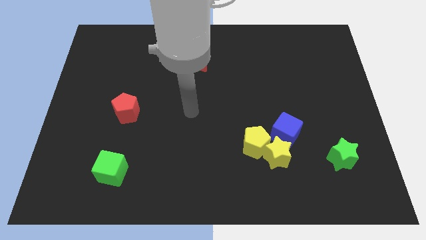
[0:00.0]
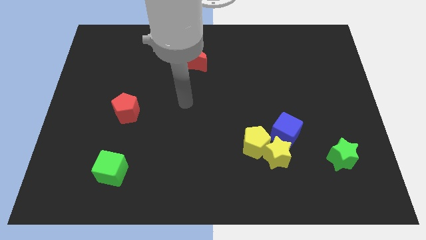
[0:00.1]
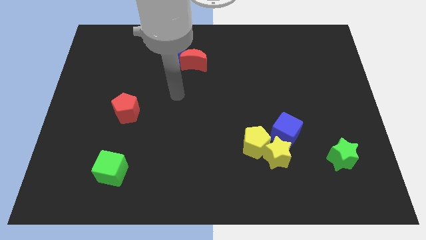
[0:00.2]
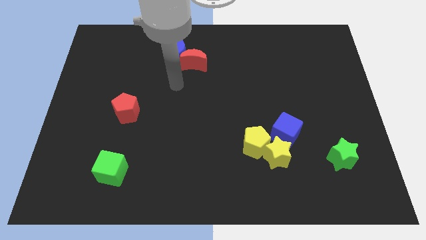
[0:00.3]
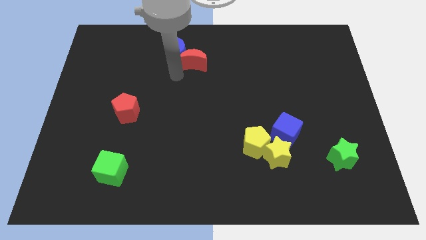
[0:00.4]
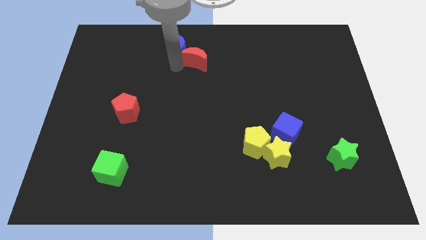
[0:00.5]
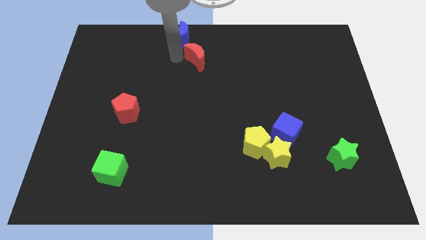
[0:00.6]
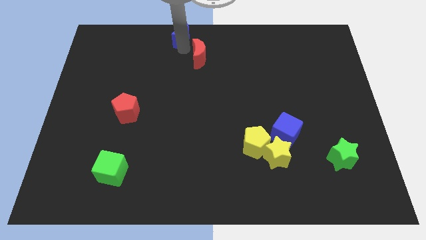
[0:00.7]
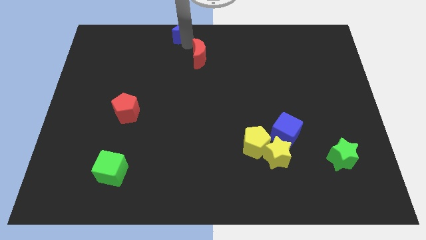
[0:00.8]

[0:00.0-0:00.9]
move the red moon away from the blue moon

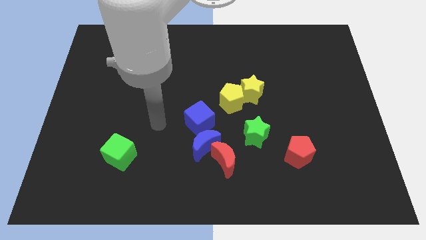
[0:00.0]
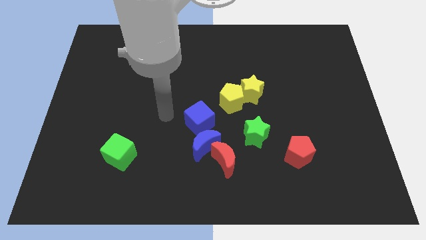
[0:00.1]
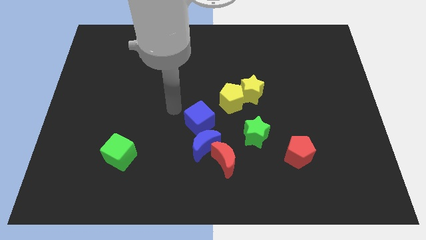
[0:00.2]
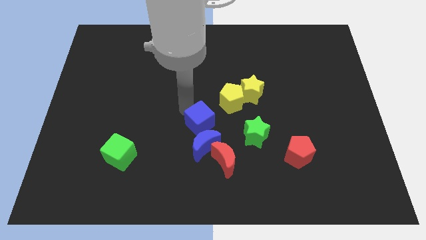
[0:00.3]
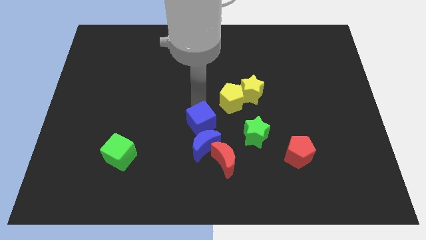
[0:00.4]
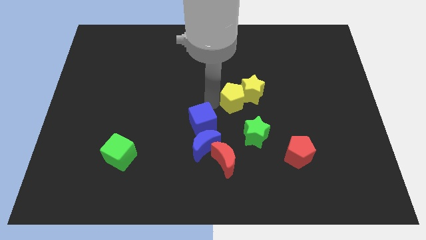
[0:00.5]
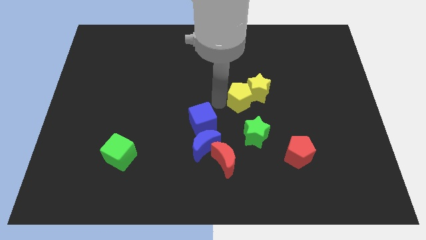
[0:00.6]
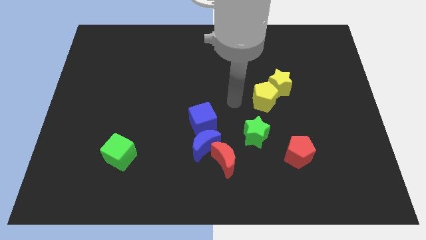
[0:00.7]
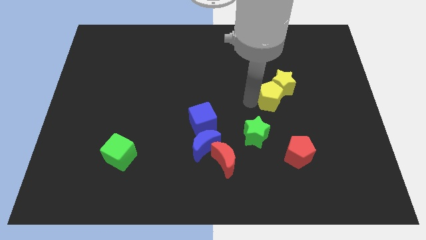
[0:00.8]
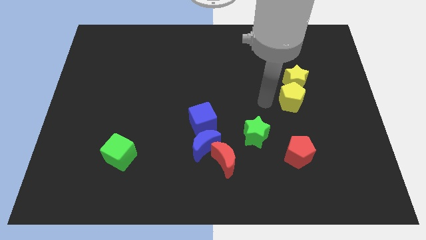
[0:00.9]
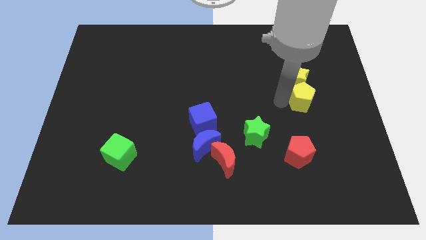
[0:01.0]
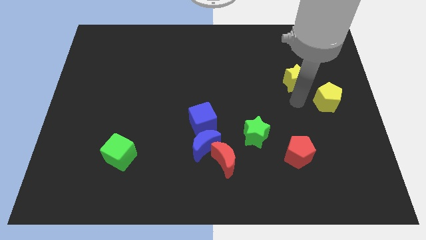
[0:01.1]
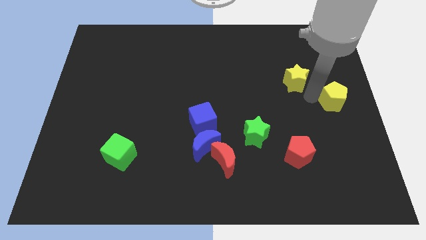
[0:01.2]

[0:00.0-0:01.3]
separate the yellow star from the yellow pentagon

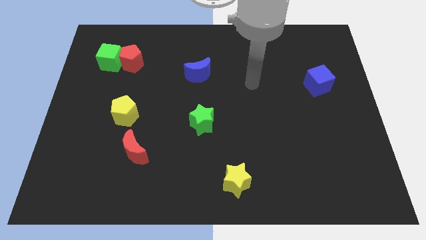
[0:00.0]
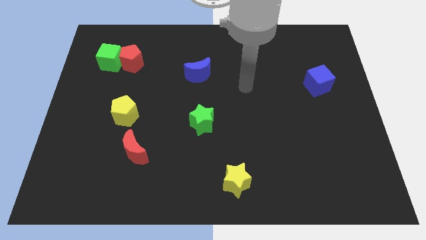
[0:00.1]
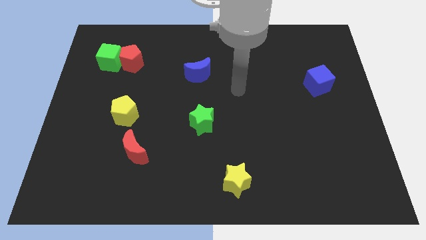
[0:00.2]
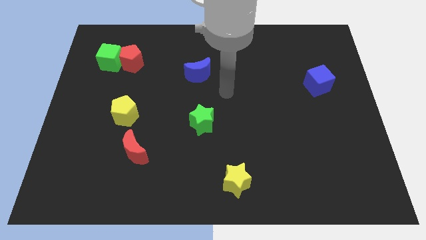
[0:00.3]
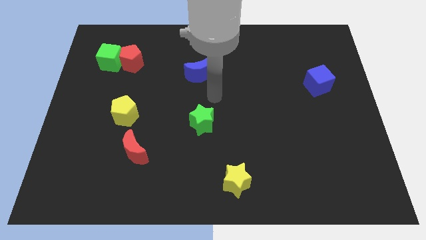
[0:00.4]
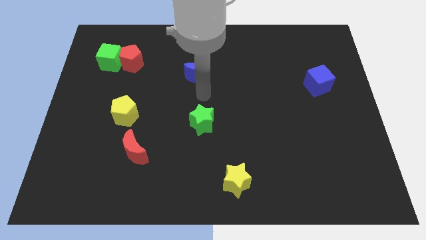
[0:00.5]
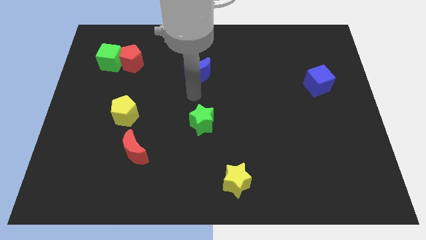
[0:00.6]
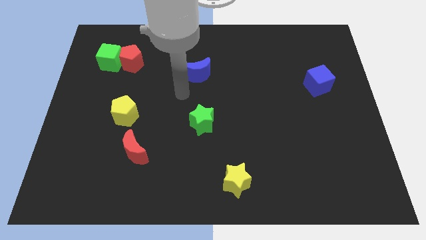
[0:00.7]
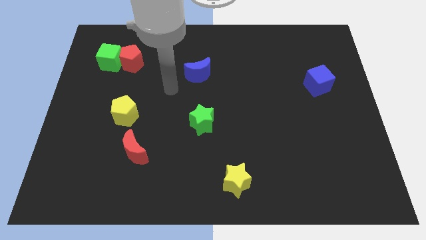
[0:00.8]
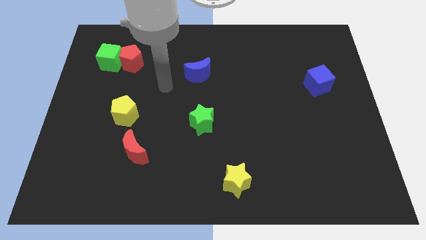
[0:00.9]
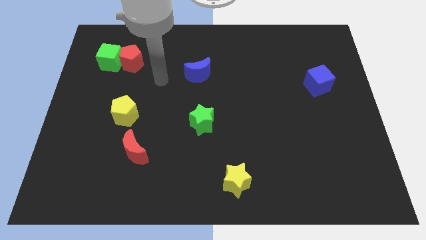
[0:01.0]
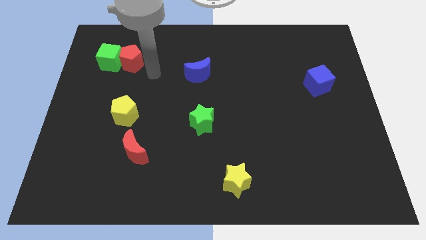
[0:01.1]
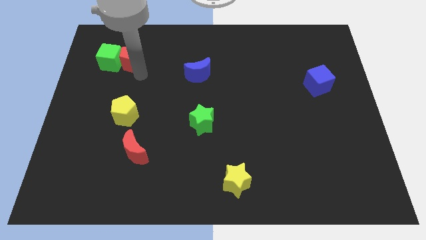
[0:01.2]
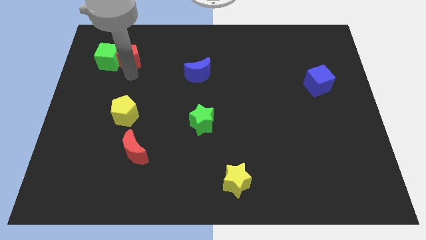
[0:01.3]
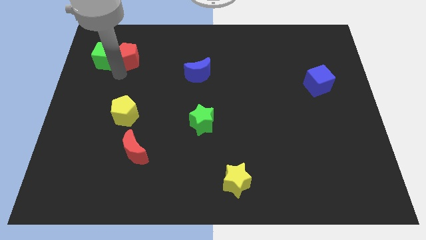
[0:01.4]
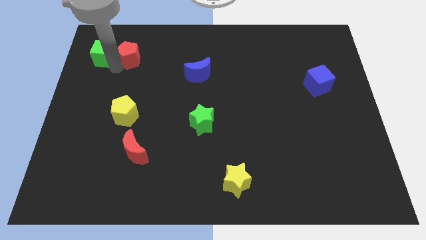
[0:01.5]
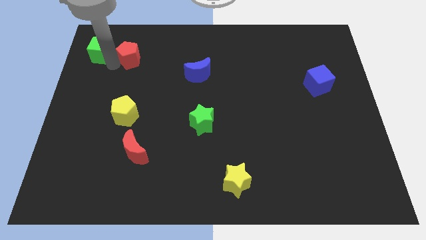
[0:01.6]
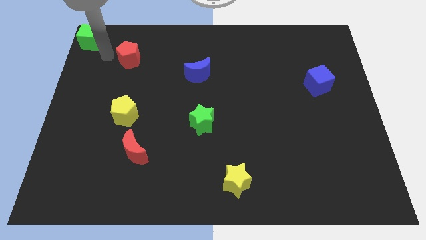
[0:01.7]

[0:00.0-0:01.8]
pull the red pentagon apart from the green cube

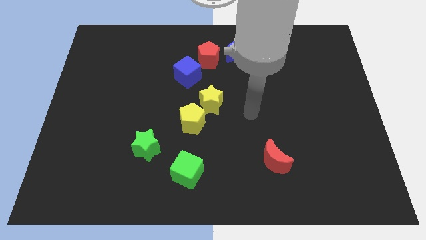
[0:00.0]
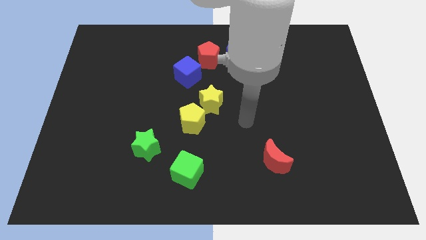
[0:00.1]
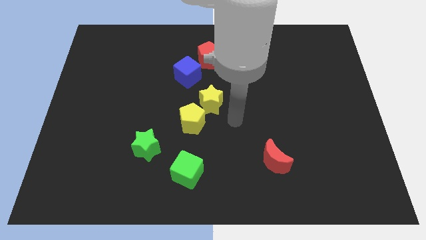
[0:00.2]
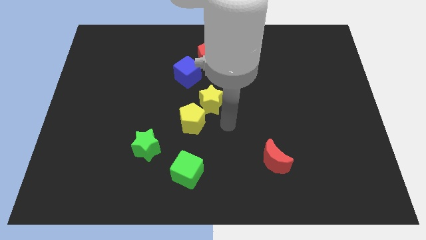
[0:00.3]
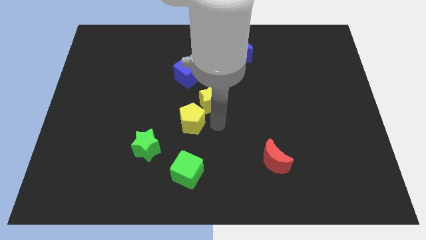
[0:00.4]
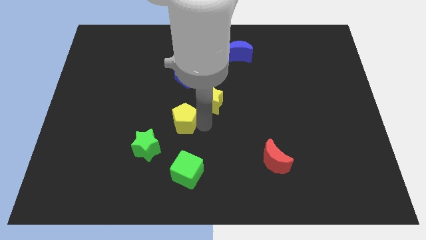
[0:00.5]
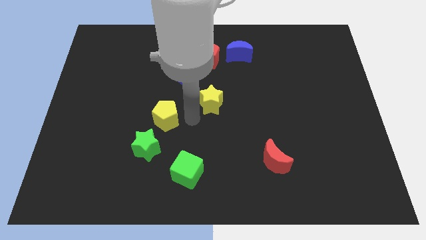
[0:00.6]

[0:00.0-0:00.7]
move the yellow star away from the yellow pentagon

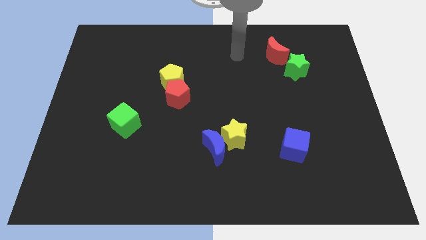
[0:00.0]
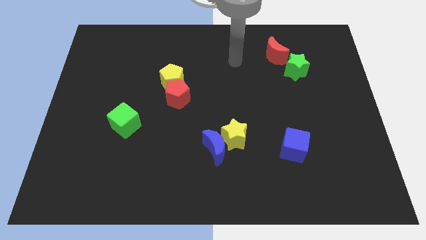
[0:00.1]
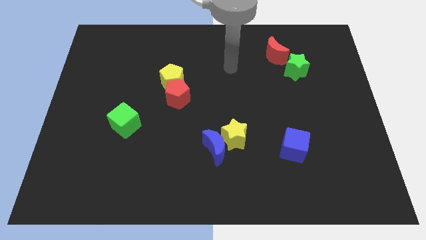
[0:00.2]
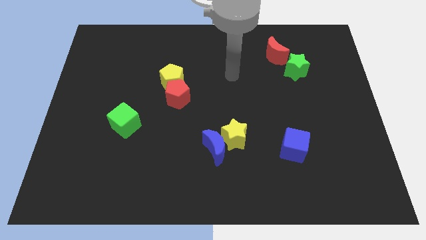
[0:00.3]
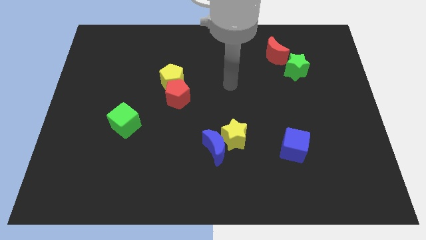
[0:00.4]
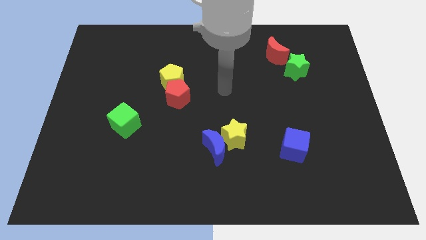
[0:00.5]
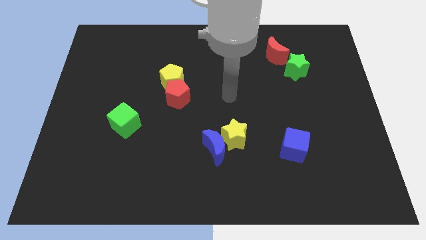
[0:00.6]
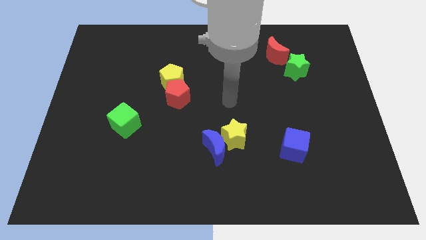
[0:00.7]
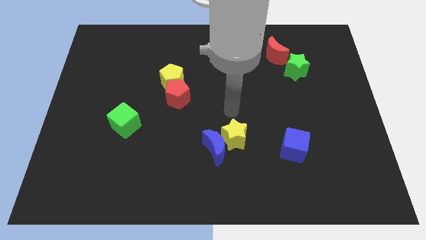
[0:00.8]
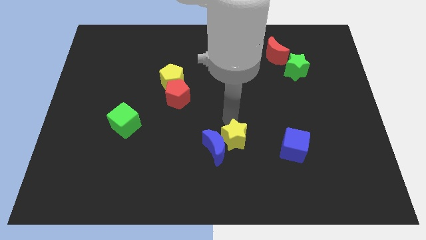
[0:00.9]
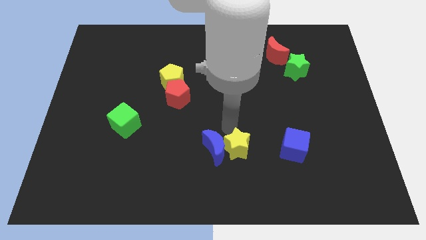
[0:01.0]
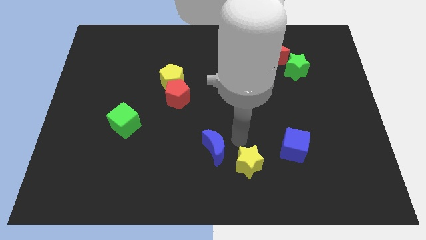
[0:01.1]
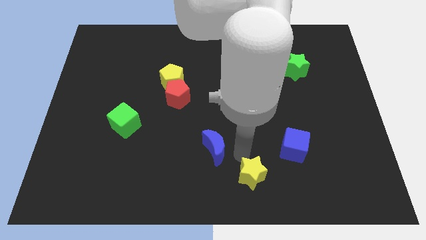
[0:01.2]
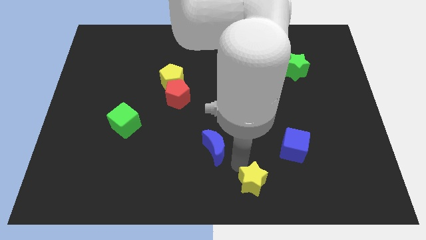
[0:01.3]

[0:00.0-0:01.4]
pull the blue moon apart from the yellow star

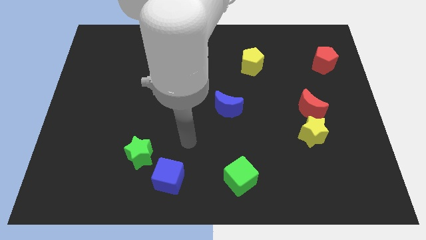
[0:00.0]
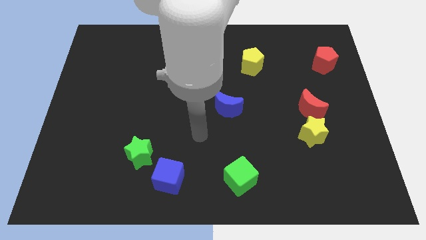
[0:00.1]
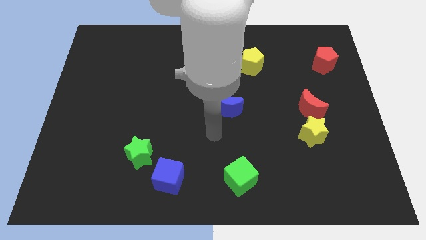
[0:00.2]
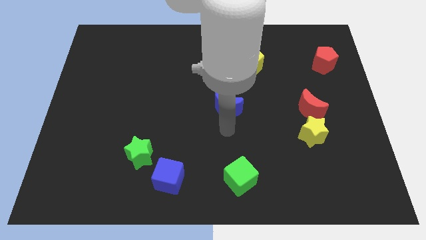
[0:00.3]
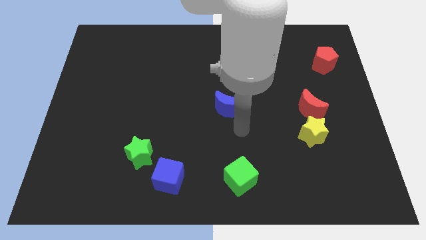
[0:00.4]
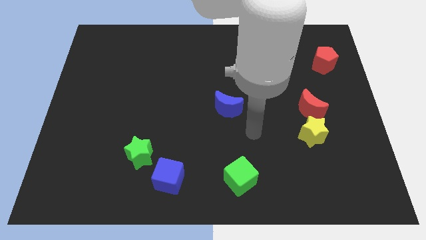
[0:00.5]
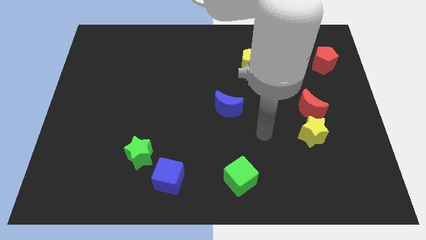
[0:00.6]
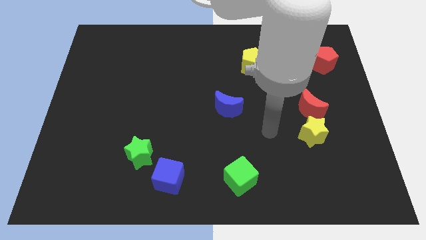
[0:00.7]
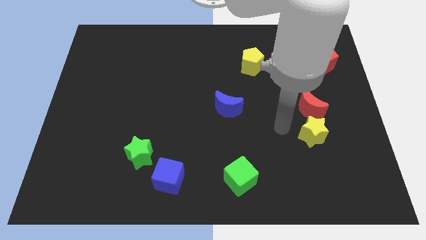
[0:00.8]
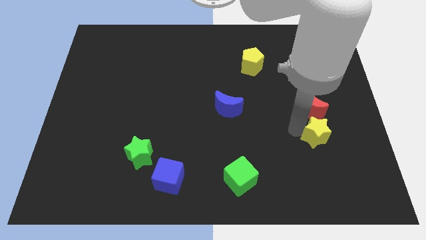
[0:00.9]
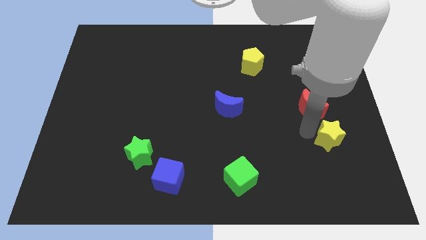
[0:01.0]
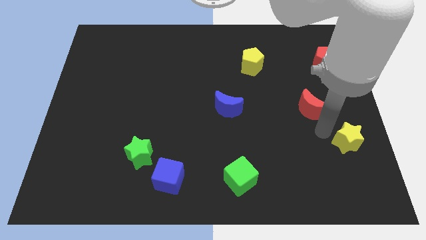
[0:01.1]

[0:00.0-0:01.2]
pull the red moon apart from the yellow star

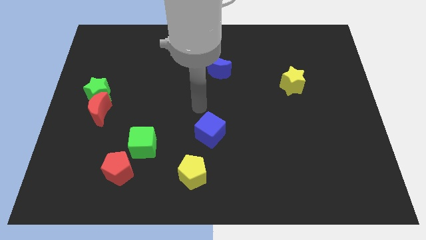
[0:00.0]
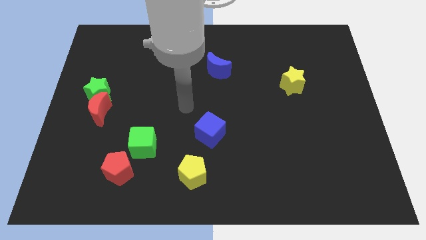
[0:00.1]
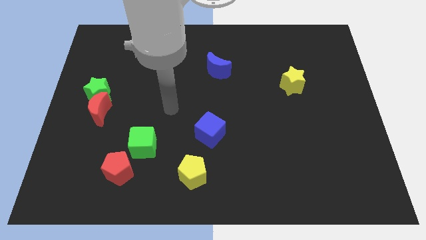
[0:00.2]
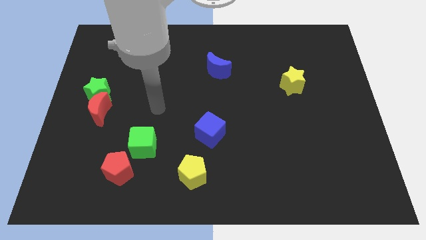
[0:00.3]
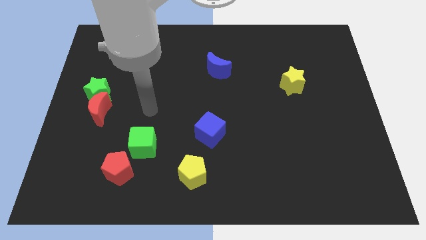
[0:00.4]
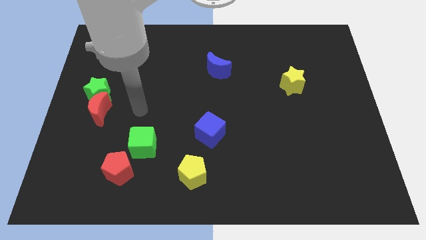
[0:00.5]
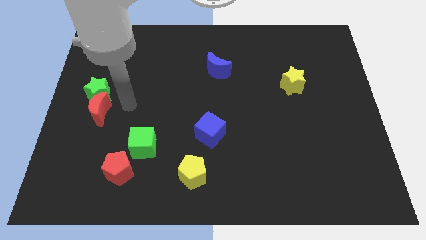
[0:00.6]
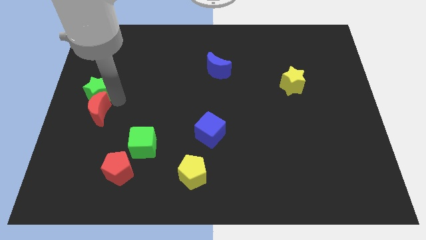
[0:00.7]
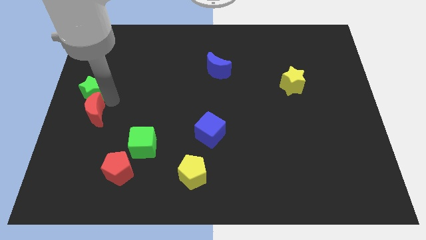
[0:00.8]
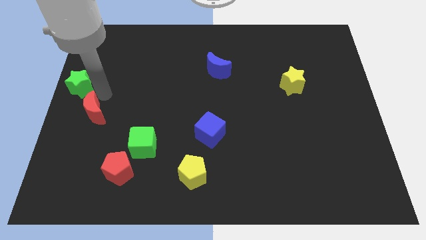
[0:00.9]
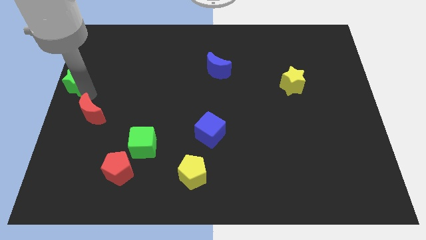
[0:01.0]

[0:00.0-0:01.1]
separate the red moon from the green star

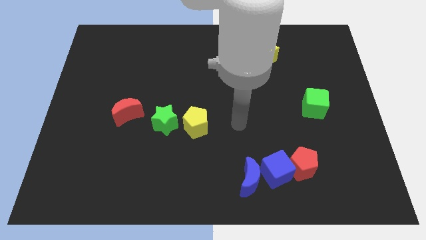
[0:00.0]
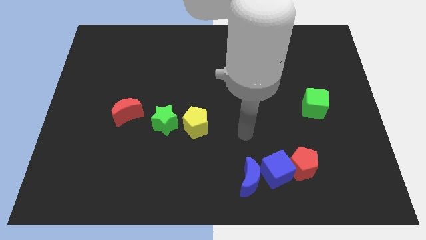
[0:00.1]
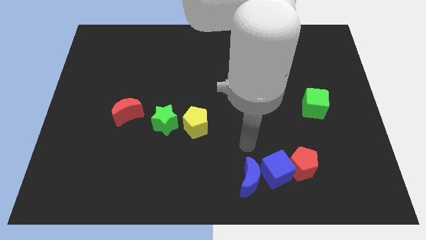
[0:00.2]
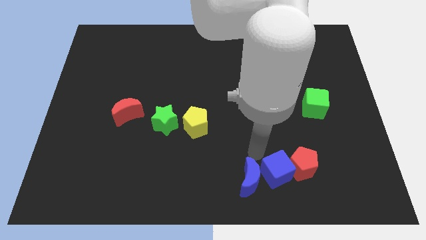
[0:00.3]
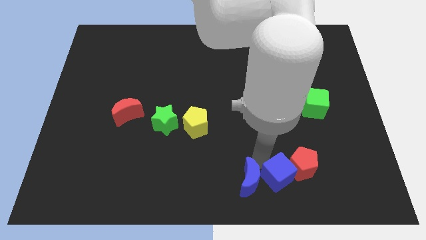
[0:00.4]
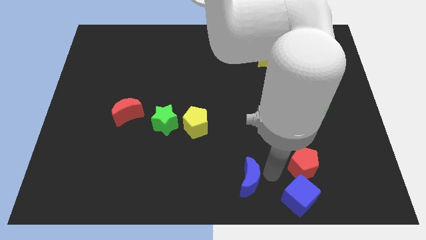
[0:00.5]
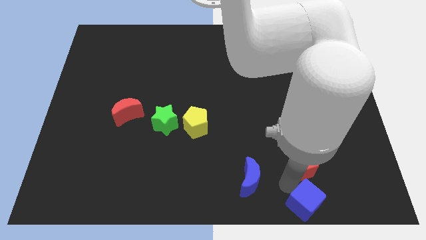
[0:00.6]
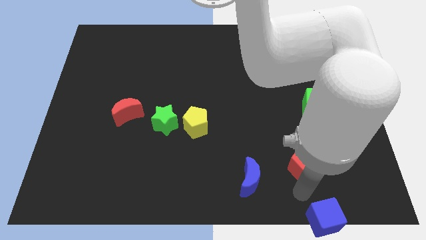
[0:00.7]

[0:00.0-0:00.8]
move the red pentagon away from the blue cube

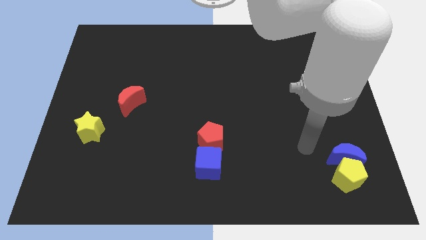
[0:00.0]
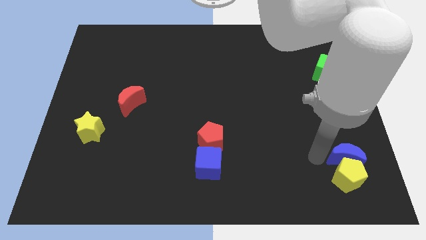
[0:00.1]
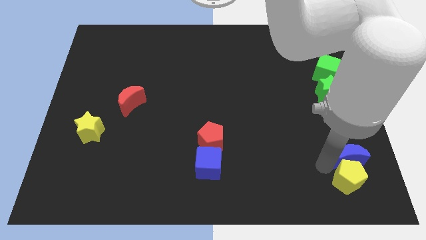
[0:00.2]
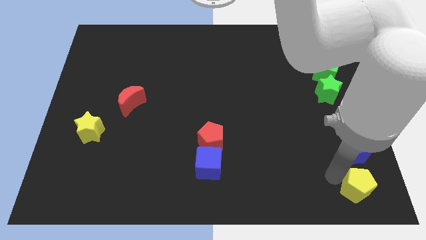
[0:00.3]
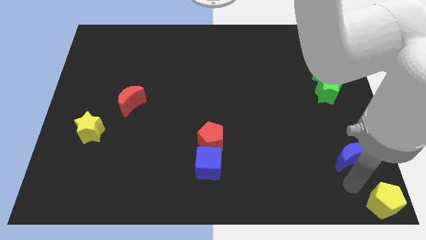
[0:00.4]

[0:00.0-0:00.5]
pull the blue moon apart from the yellow pentagon
